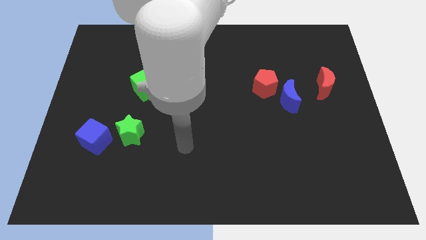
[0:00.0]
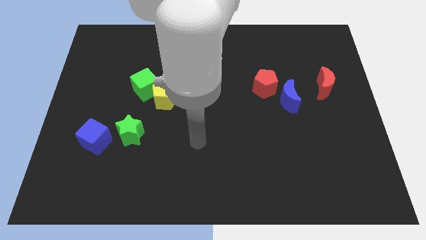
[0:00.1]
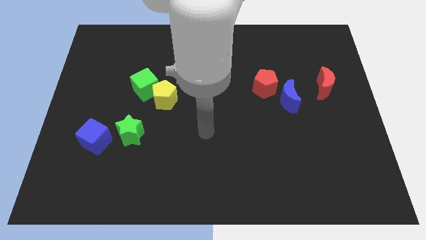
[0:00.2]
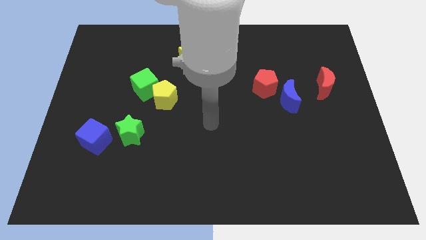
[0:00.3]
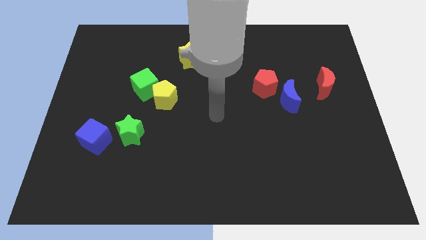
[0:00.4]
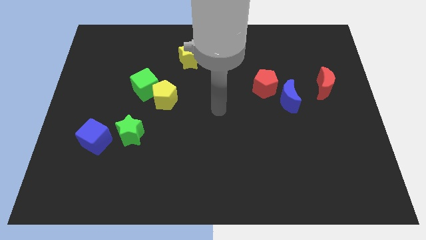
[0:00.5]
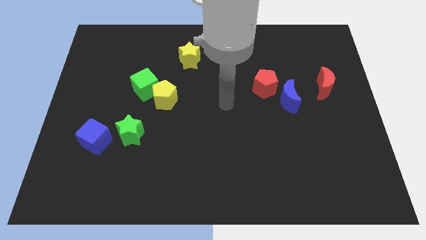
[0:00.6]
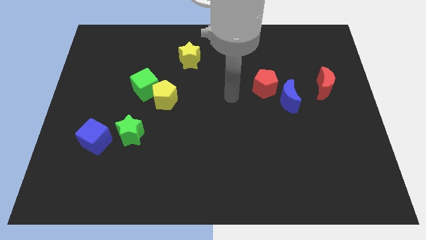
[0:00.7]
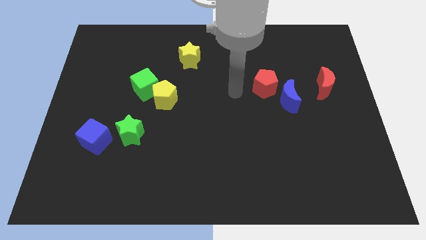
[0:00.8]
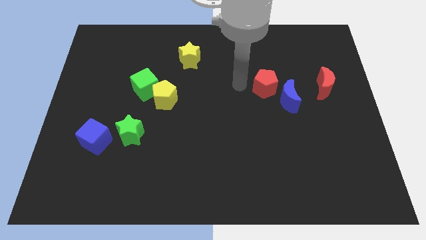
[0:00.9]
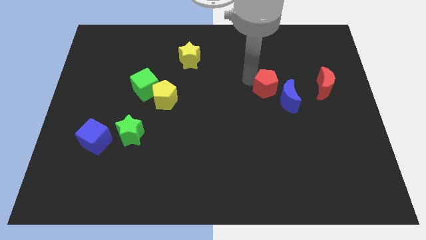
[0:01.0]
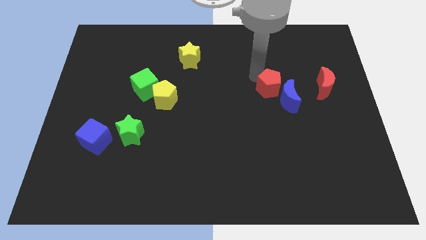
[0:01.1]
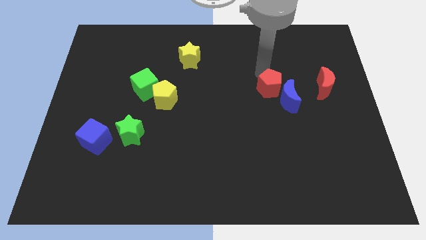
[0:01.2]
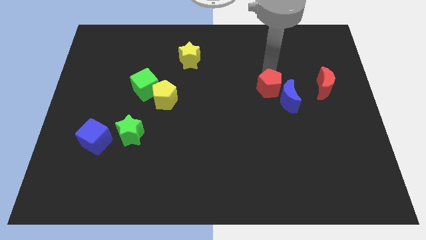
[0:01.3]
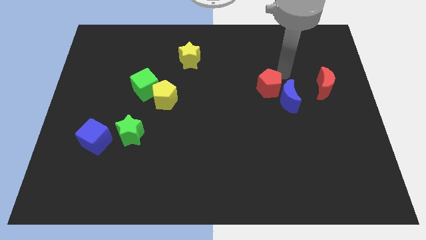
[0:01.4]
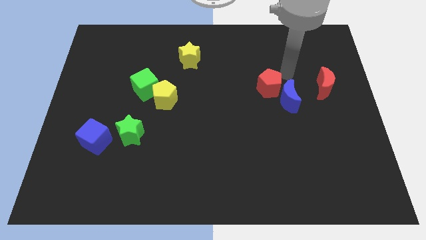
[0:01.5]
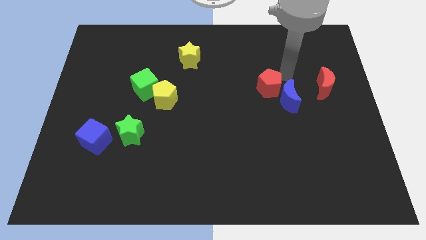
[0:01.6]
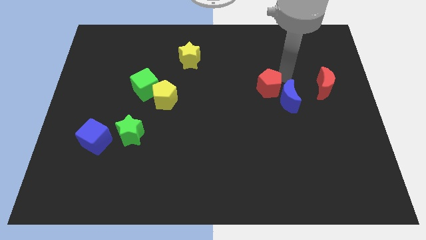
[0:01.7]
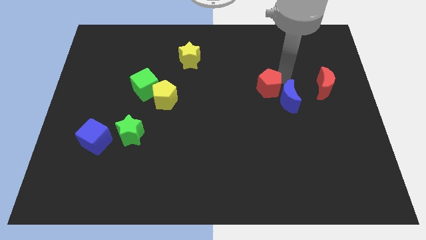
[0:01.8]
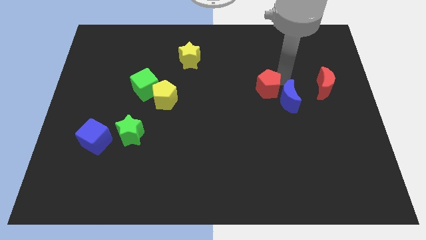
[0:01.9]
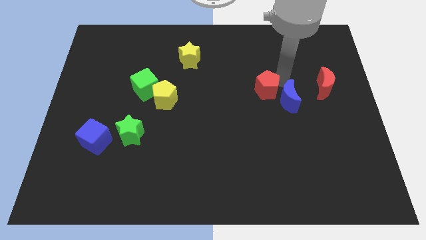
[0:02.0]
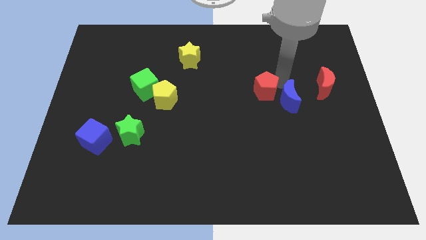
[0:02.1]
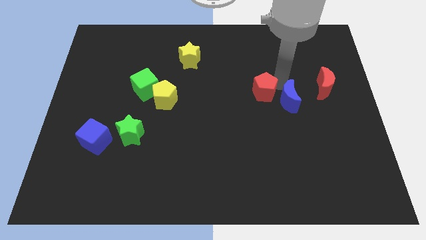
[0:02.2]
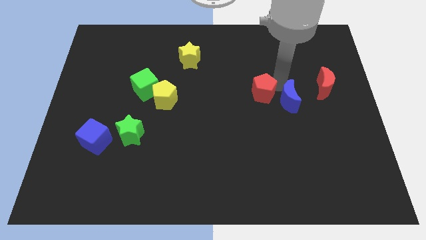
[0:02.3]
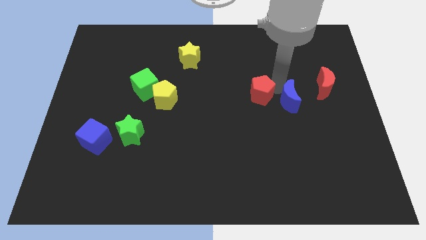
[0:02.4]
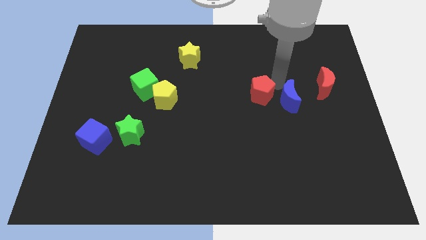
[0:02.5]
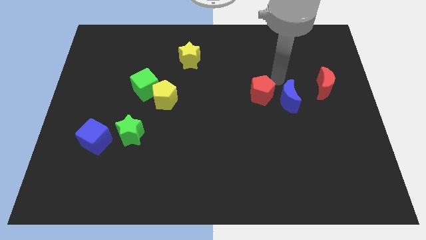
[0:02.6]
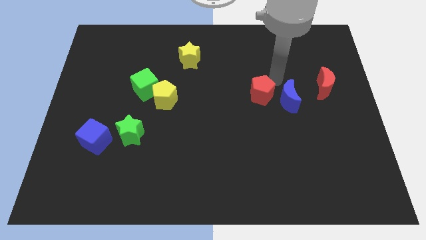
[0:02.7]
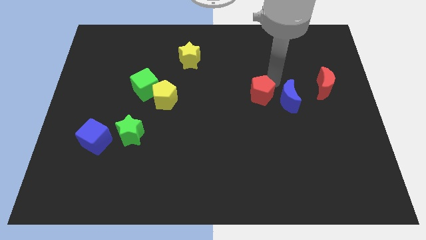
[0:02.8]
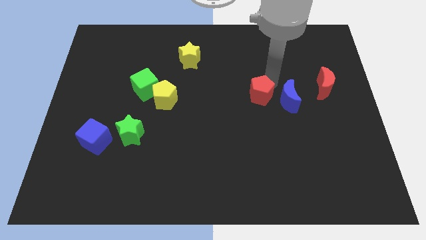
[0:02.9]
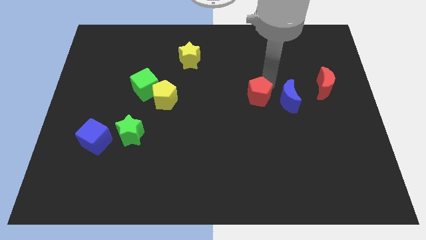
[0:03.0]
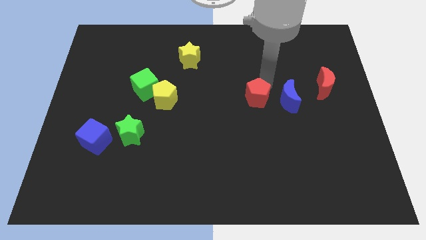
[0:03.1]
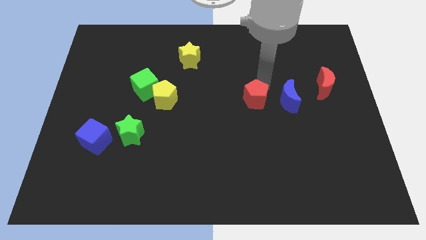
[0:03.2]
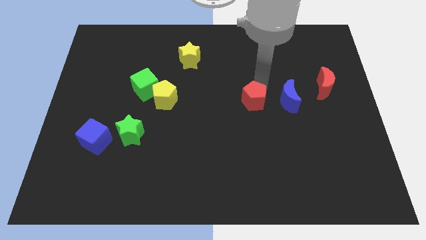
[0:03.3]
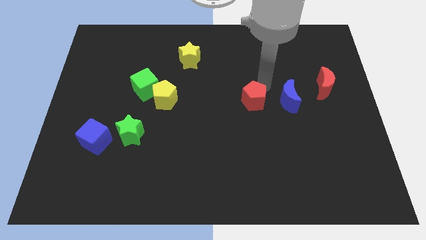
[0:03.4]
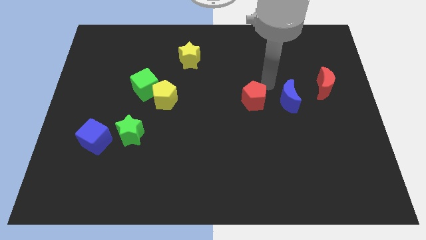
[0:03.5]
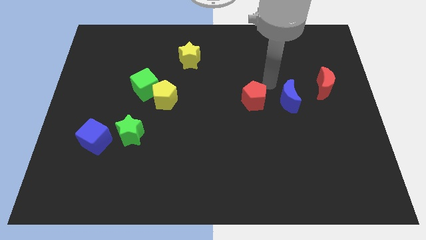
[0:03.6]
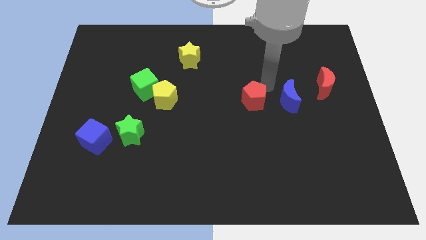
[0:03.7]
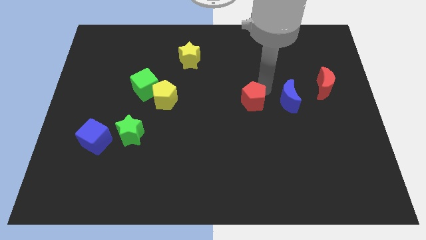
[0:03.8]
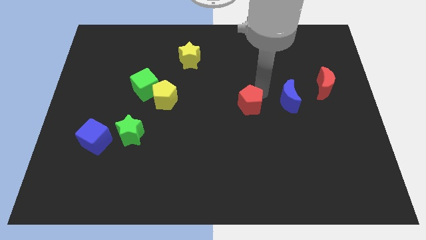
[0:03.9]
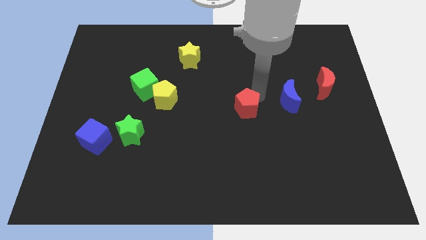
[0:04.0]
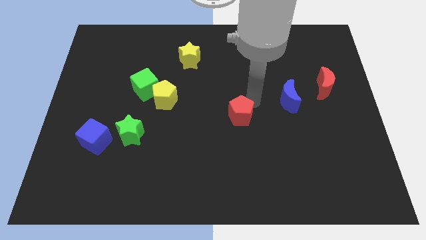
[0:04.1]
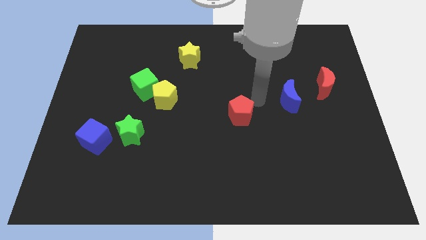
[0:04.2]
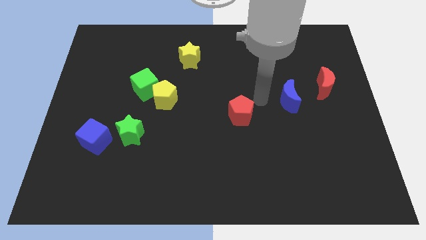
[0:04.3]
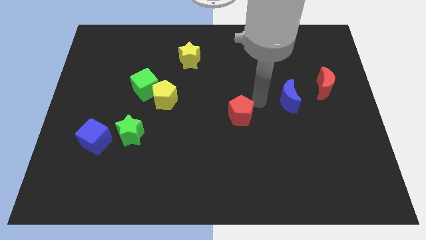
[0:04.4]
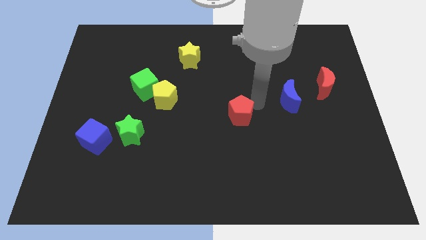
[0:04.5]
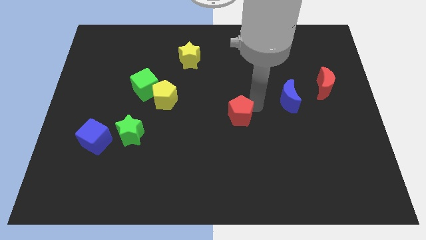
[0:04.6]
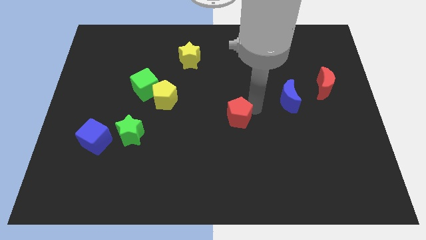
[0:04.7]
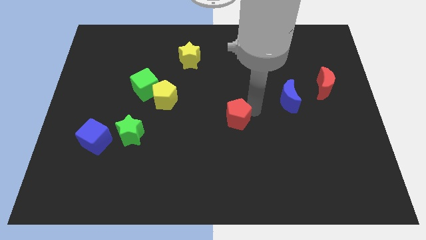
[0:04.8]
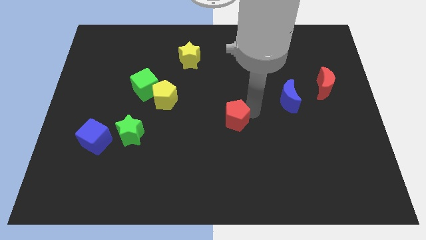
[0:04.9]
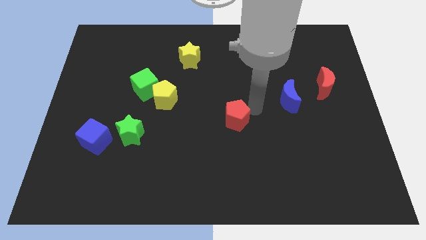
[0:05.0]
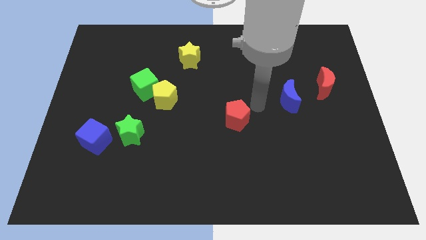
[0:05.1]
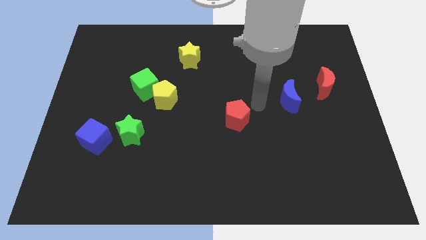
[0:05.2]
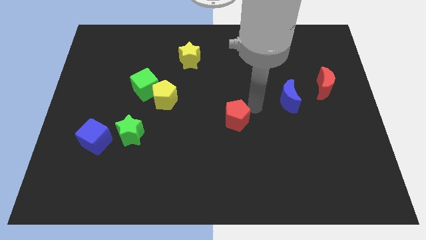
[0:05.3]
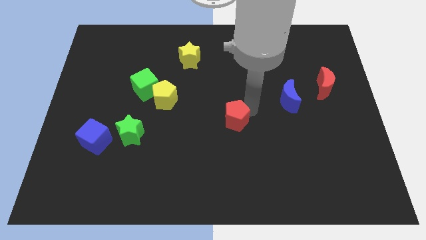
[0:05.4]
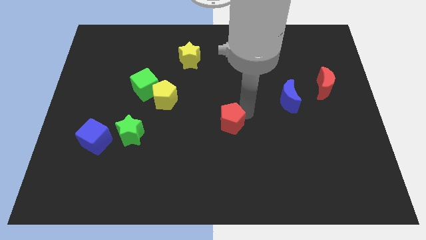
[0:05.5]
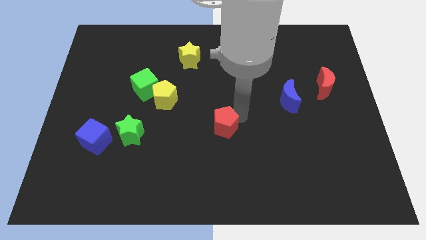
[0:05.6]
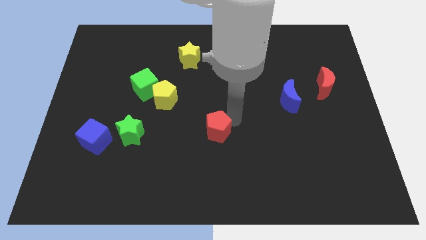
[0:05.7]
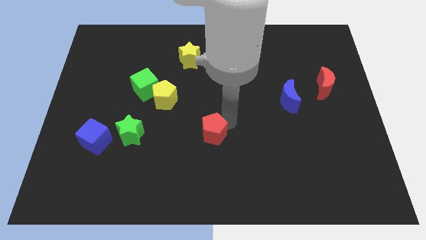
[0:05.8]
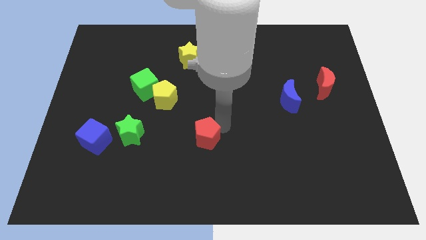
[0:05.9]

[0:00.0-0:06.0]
move the red pentagon down and left

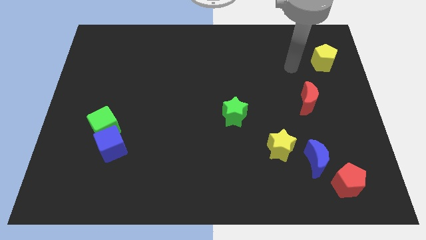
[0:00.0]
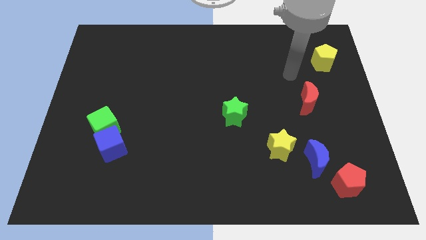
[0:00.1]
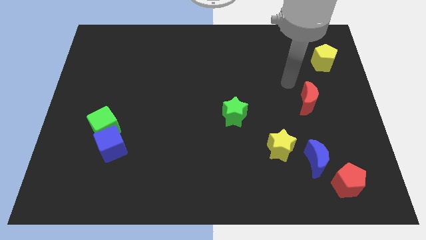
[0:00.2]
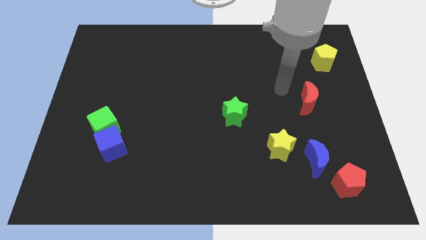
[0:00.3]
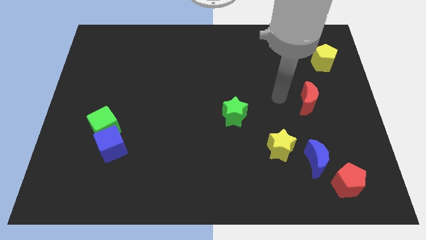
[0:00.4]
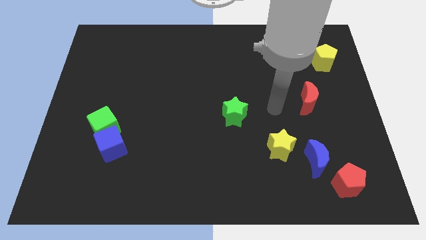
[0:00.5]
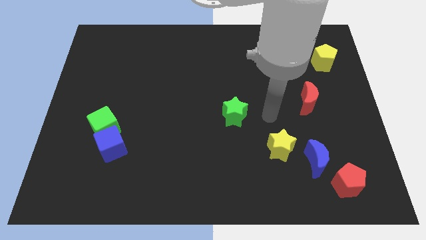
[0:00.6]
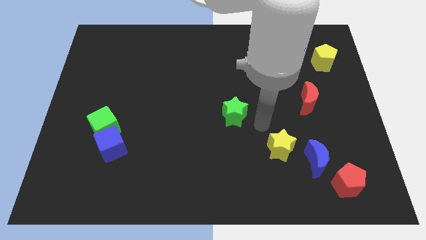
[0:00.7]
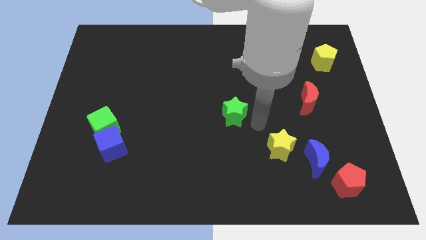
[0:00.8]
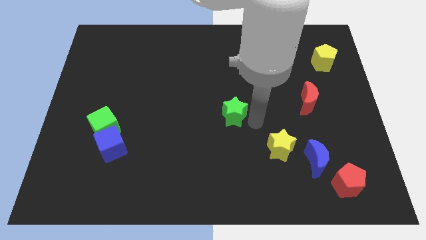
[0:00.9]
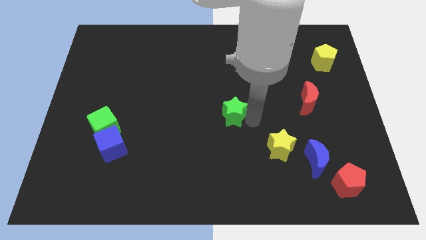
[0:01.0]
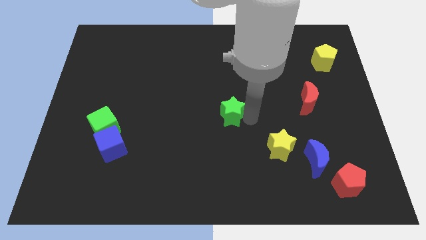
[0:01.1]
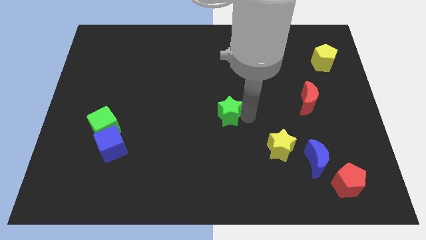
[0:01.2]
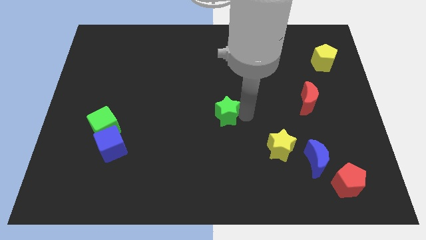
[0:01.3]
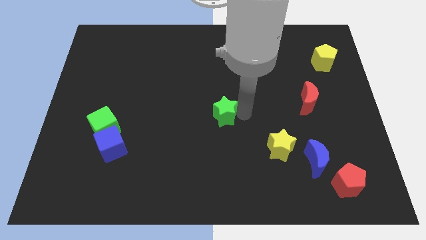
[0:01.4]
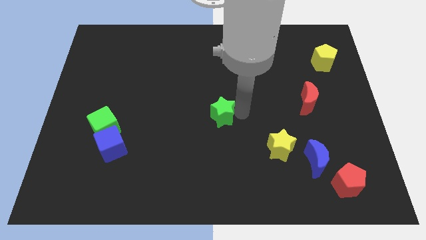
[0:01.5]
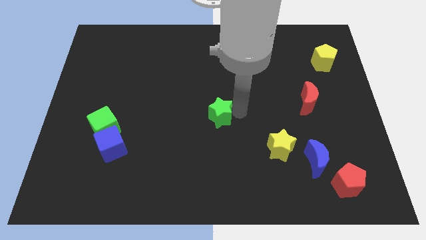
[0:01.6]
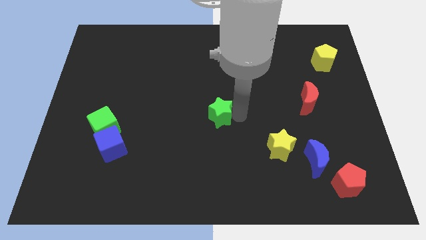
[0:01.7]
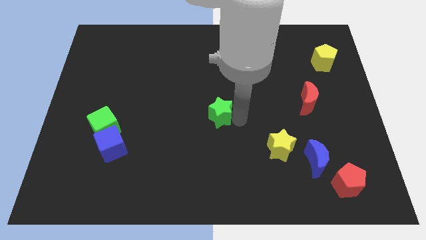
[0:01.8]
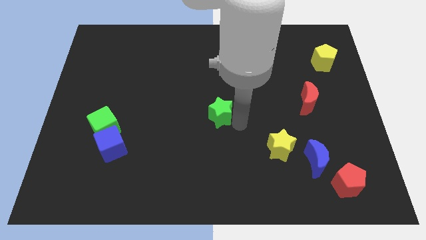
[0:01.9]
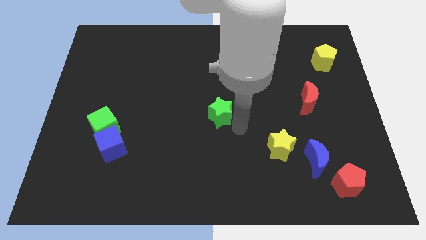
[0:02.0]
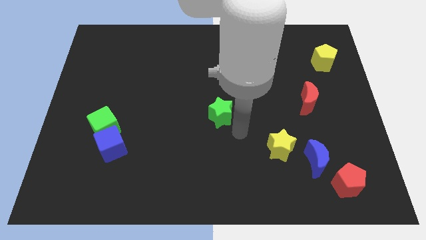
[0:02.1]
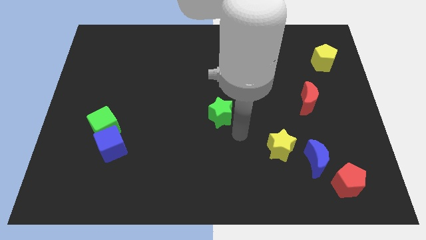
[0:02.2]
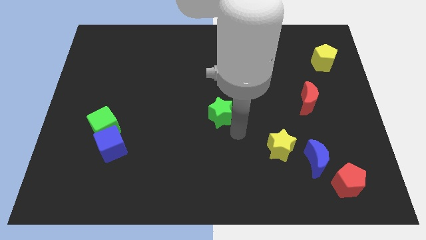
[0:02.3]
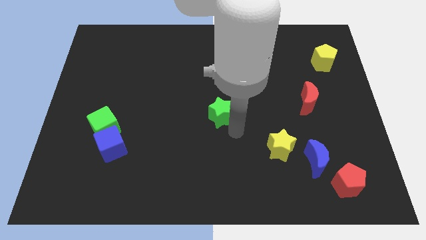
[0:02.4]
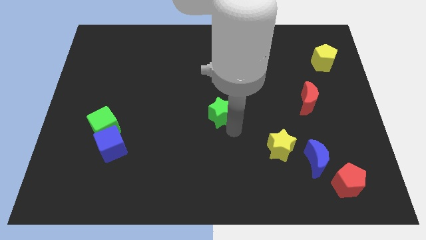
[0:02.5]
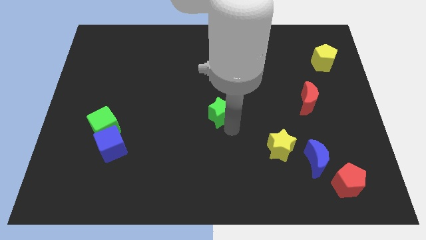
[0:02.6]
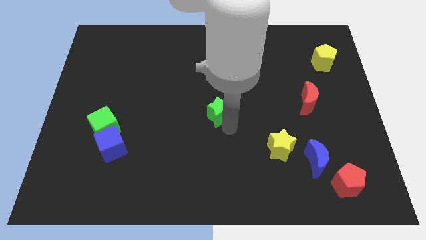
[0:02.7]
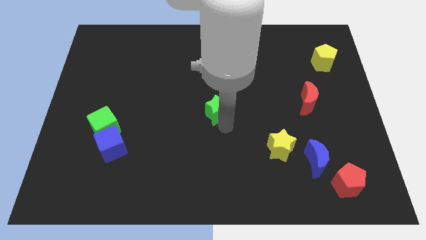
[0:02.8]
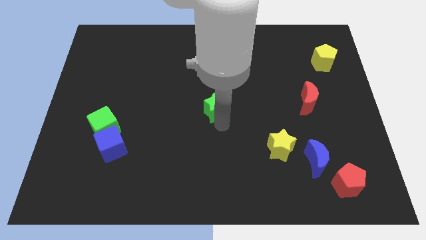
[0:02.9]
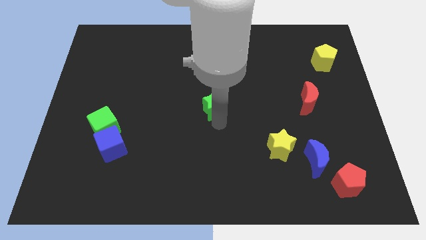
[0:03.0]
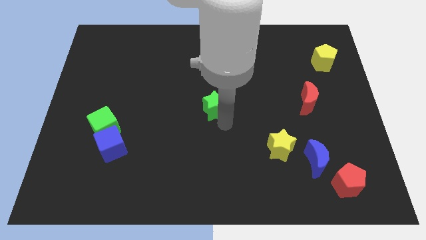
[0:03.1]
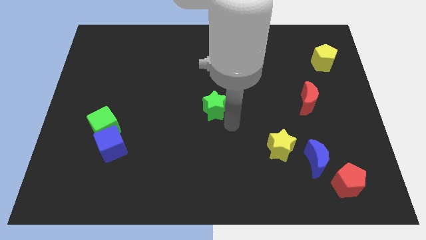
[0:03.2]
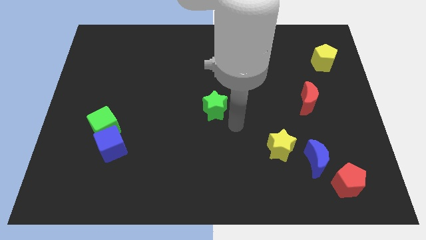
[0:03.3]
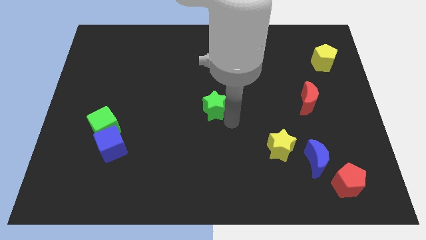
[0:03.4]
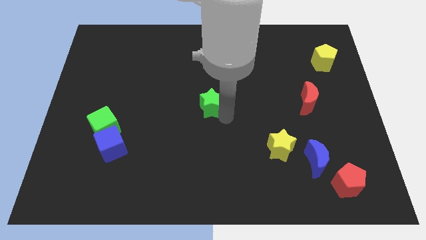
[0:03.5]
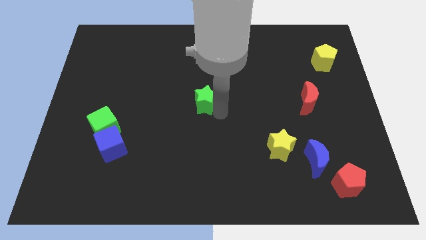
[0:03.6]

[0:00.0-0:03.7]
move the green star upwards and to the left a little
